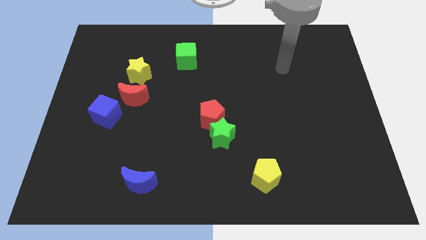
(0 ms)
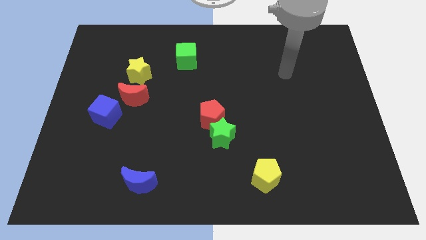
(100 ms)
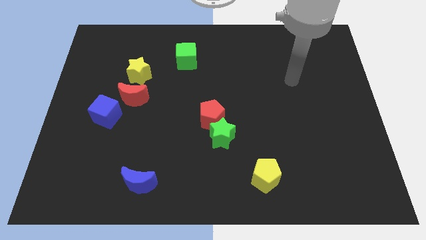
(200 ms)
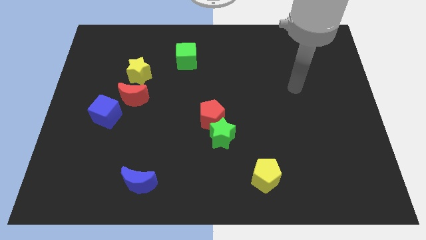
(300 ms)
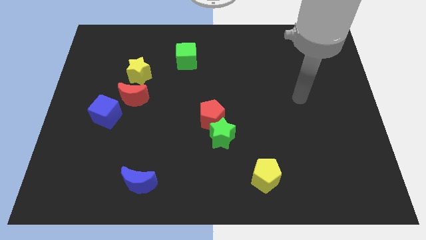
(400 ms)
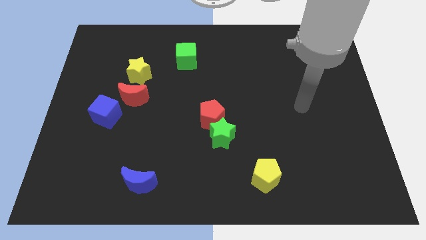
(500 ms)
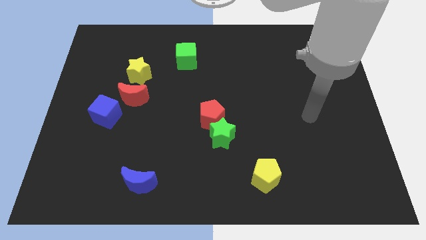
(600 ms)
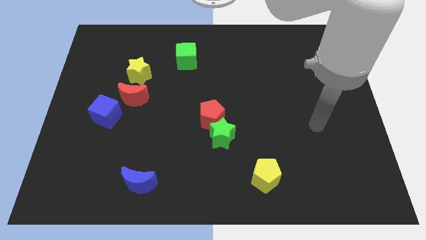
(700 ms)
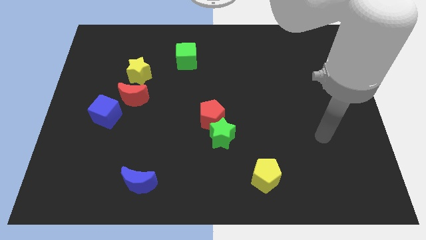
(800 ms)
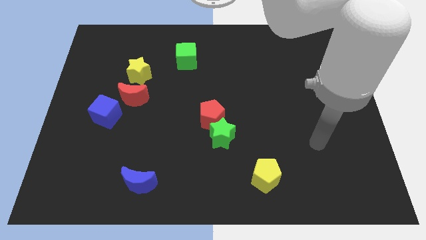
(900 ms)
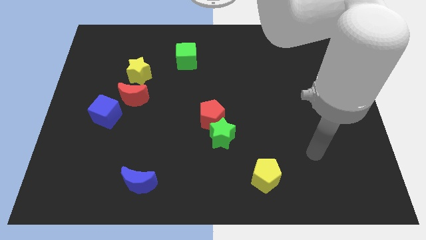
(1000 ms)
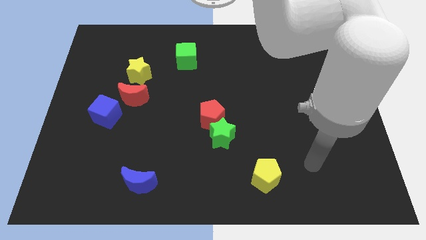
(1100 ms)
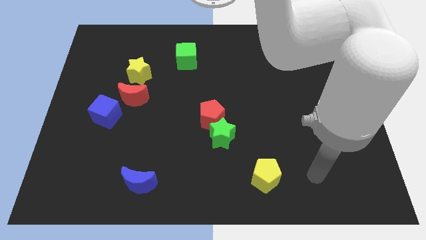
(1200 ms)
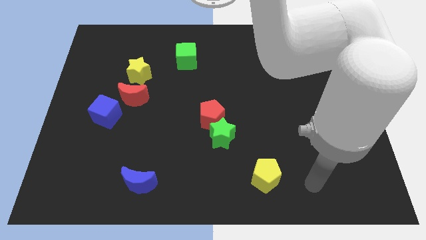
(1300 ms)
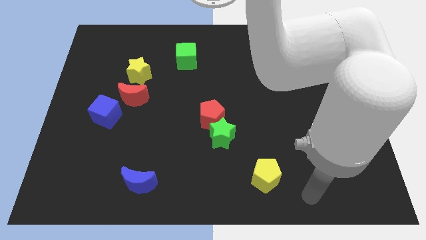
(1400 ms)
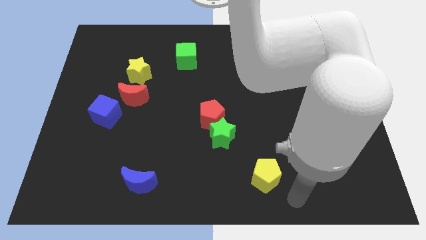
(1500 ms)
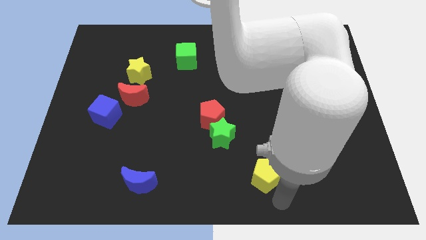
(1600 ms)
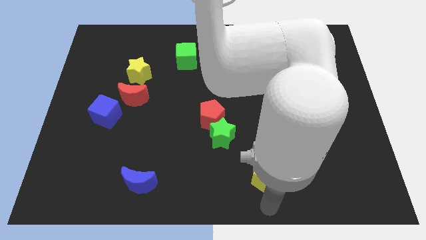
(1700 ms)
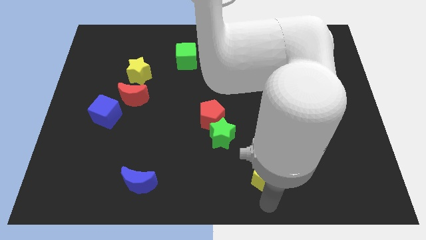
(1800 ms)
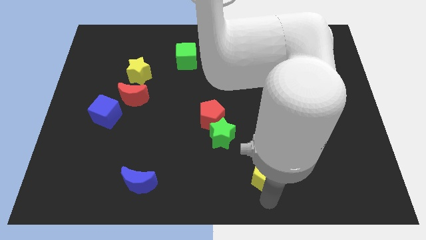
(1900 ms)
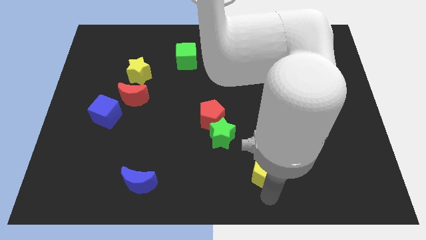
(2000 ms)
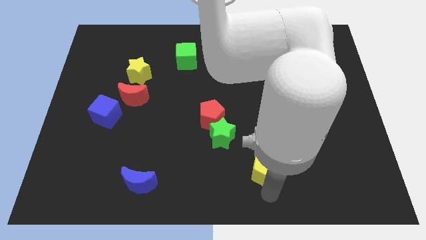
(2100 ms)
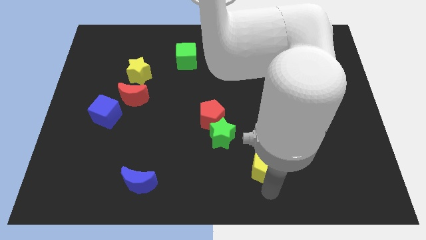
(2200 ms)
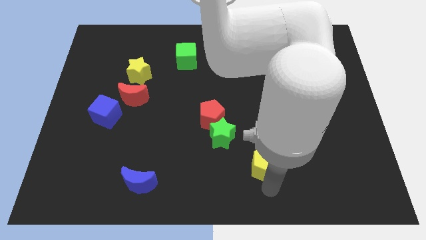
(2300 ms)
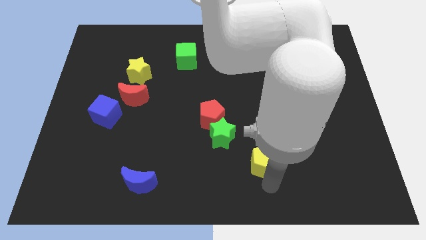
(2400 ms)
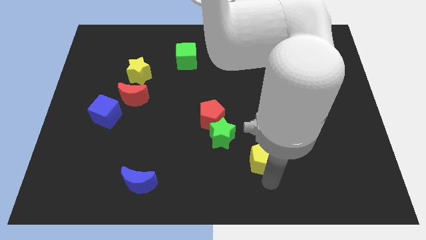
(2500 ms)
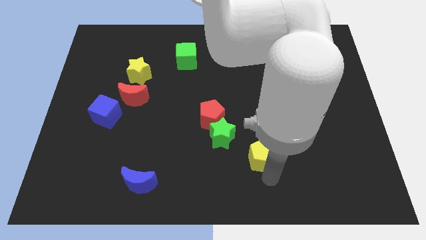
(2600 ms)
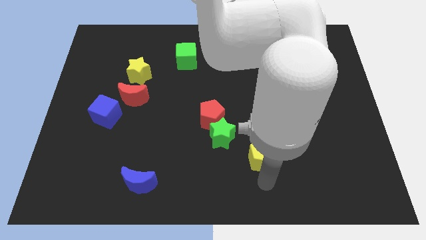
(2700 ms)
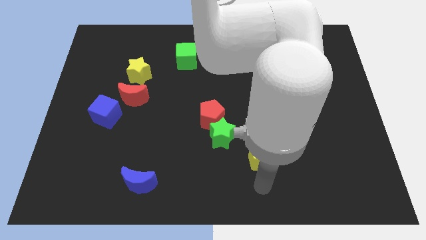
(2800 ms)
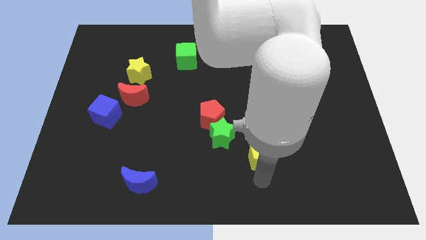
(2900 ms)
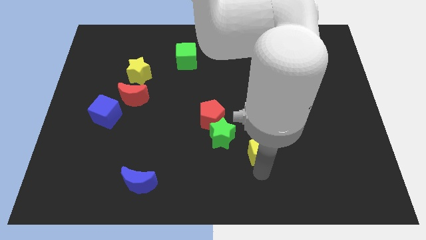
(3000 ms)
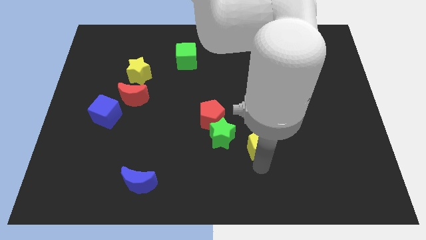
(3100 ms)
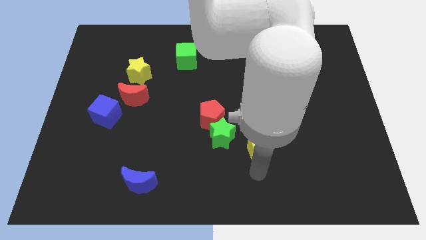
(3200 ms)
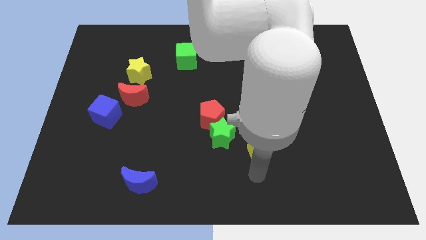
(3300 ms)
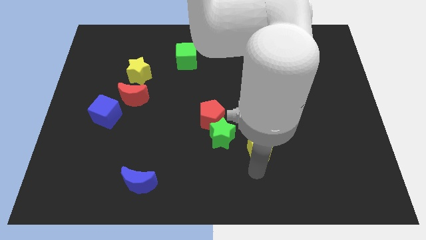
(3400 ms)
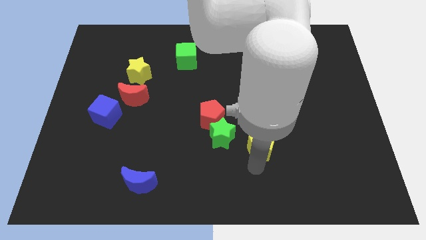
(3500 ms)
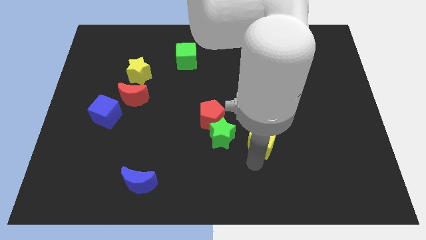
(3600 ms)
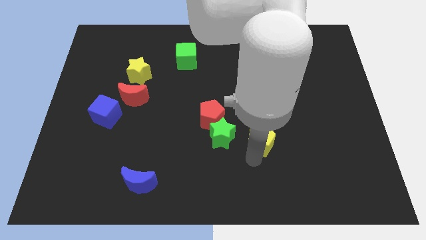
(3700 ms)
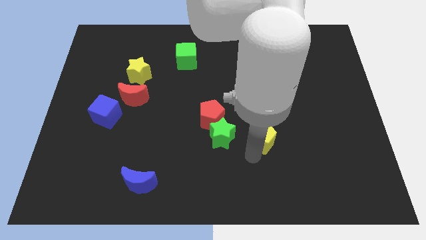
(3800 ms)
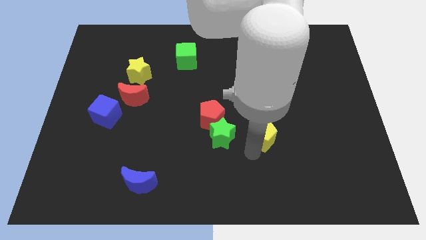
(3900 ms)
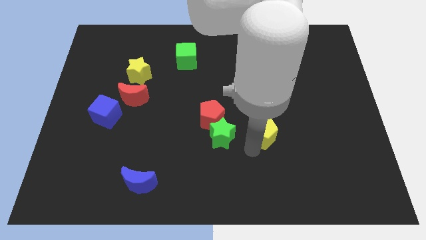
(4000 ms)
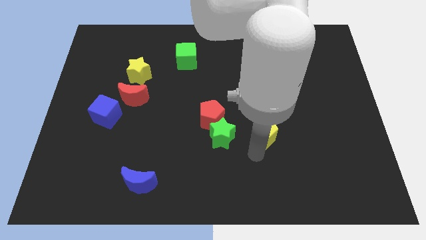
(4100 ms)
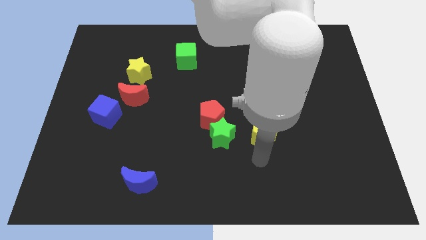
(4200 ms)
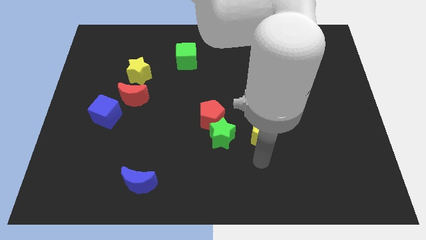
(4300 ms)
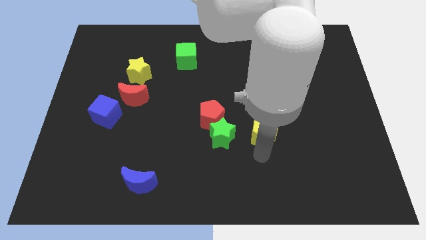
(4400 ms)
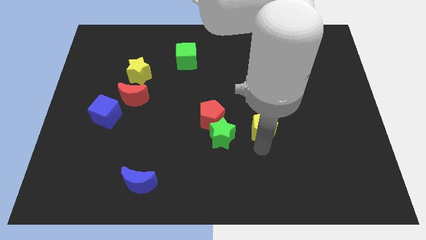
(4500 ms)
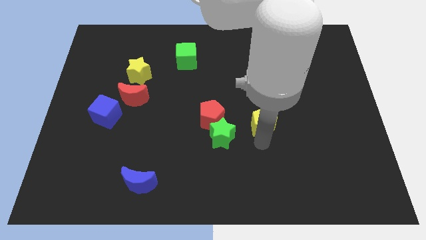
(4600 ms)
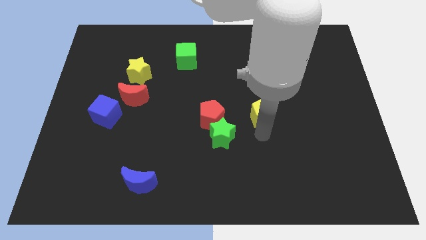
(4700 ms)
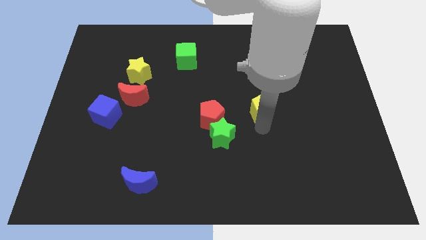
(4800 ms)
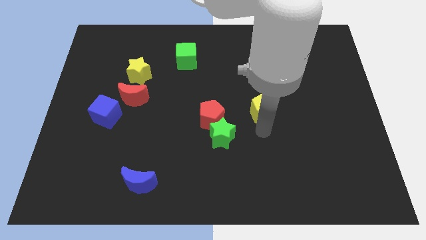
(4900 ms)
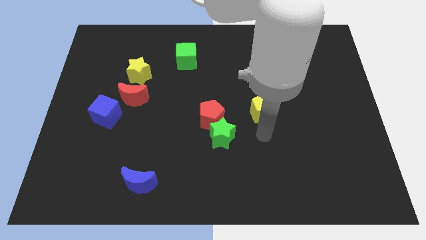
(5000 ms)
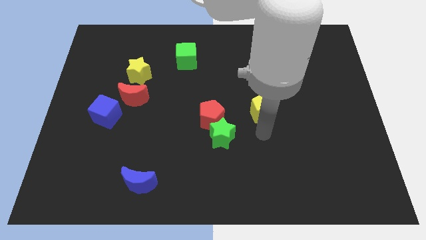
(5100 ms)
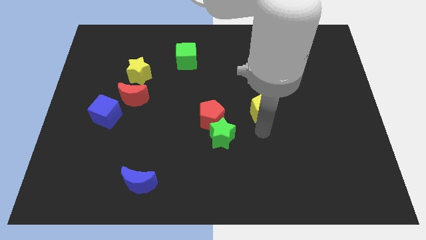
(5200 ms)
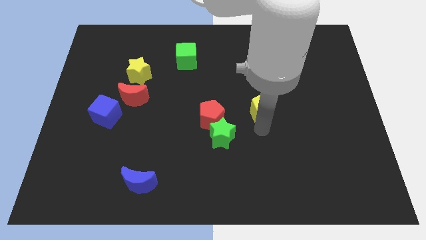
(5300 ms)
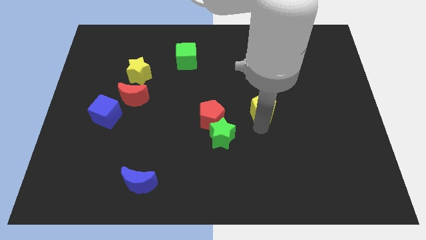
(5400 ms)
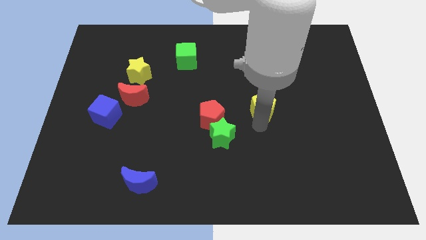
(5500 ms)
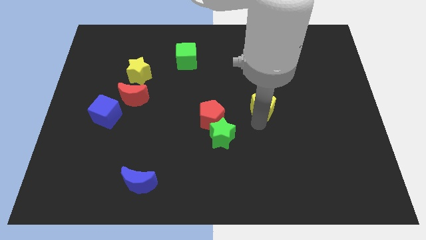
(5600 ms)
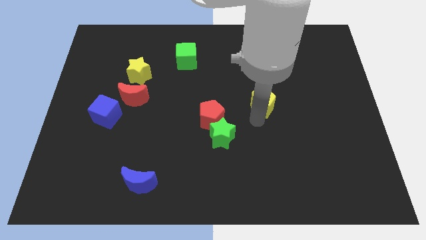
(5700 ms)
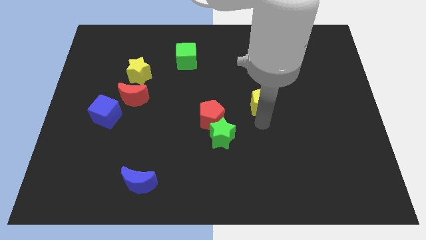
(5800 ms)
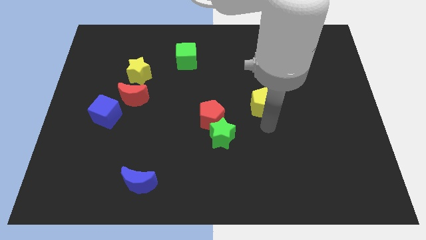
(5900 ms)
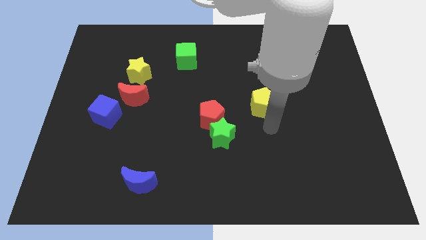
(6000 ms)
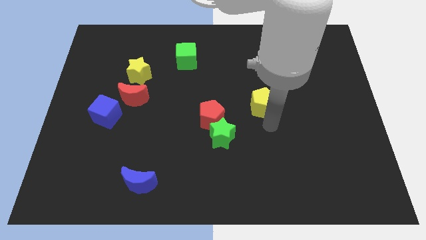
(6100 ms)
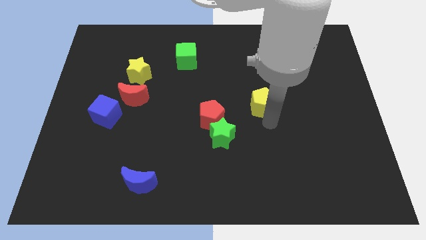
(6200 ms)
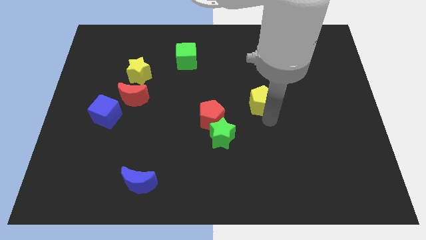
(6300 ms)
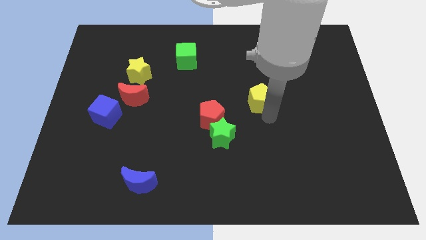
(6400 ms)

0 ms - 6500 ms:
push the yellow pentagon up

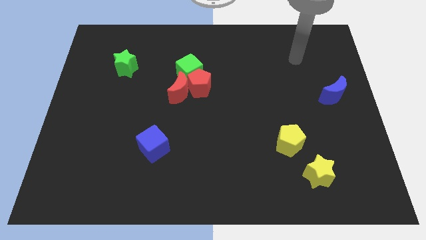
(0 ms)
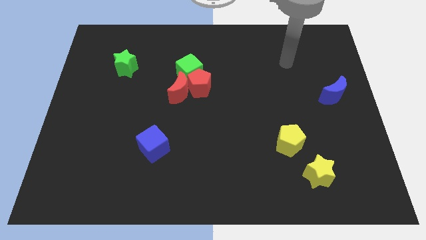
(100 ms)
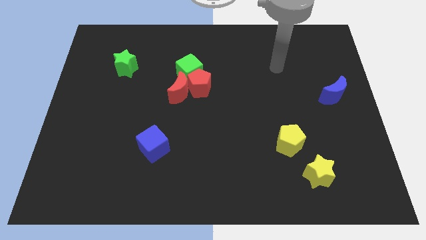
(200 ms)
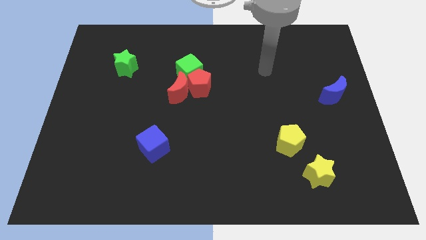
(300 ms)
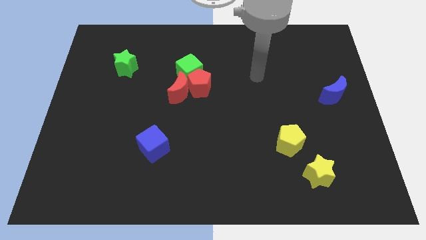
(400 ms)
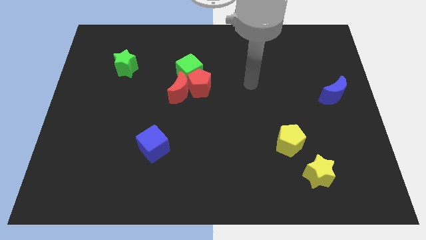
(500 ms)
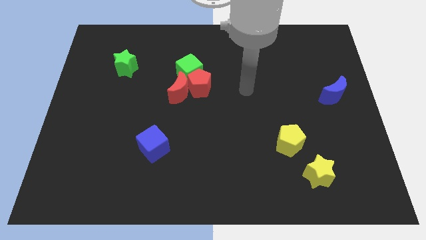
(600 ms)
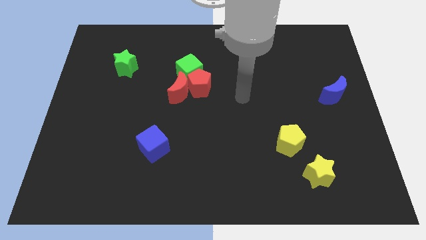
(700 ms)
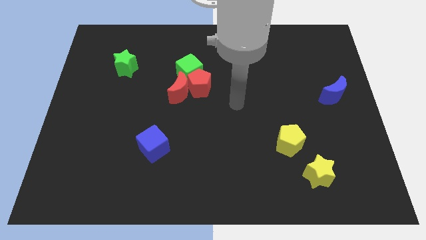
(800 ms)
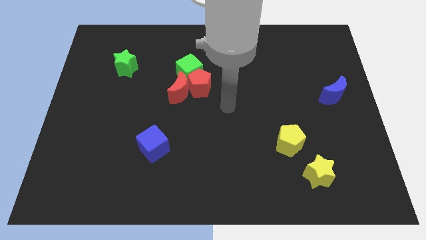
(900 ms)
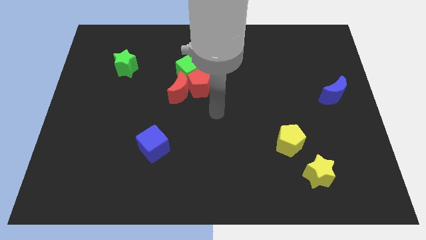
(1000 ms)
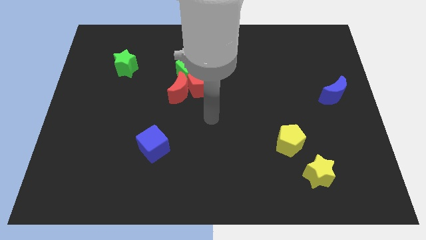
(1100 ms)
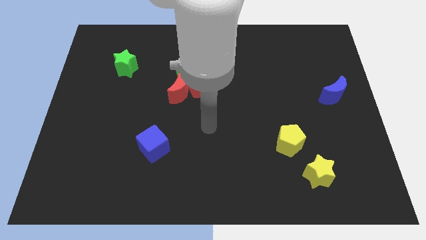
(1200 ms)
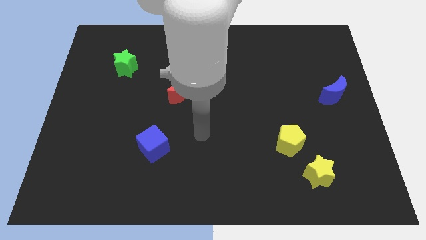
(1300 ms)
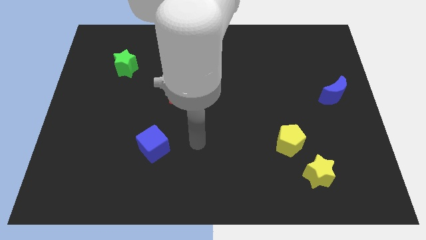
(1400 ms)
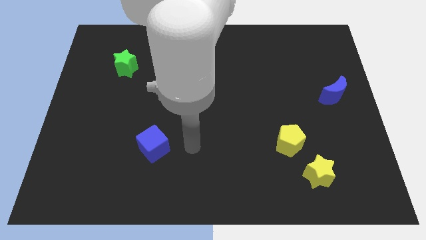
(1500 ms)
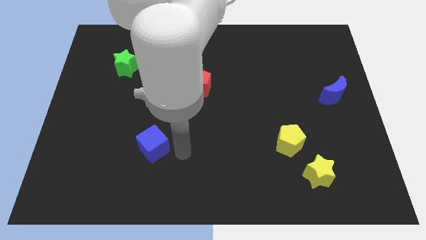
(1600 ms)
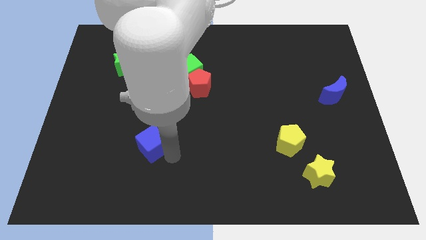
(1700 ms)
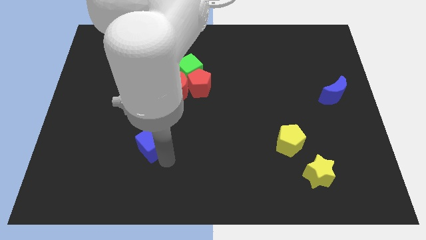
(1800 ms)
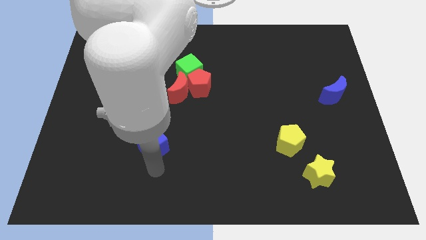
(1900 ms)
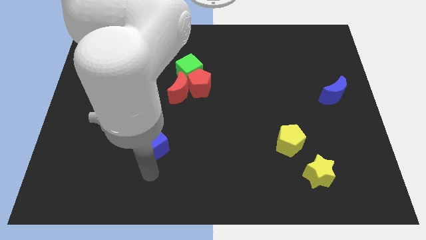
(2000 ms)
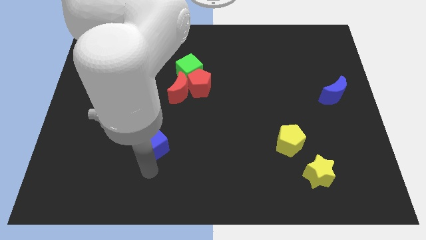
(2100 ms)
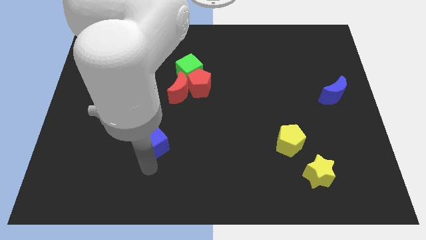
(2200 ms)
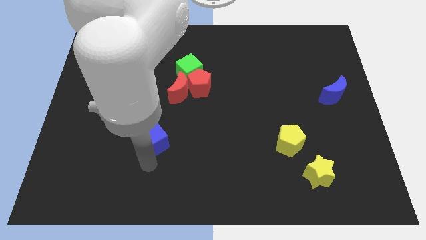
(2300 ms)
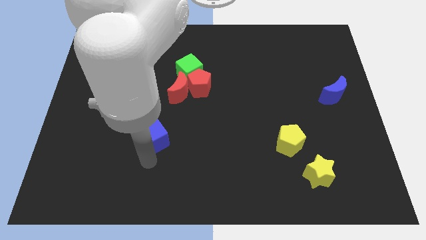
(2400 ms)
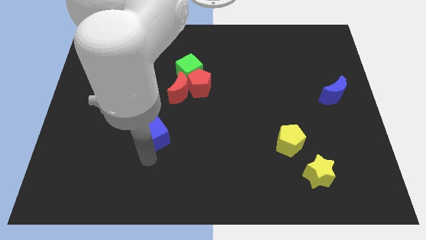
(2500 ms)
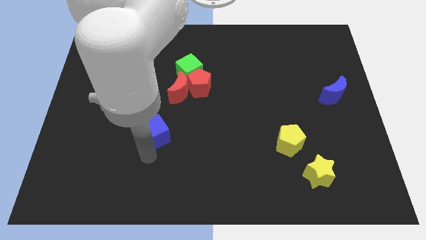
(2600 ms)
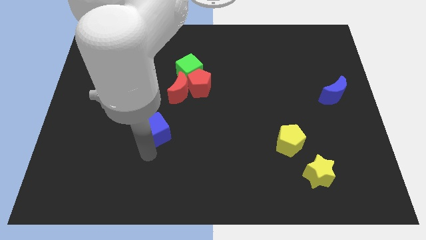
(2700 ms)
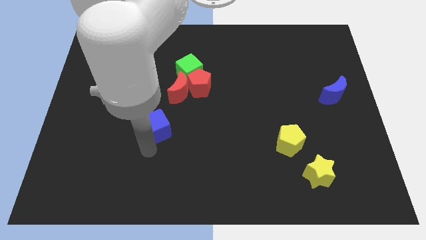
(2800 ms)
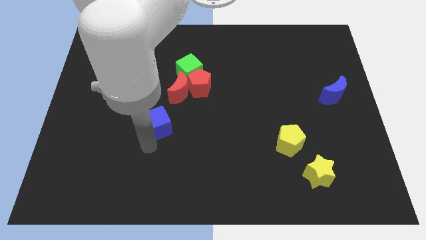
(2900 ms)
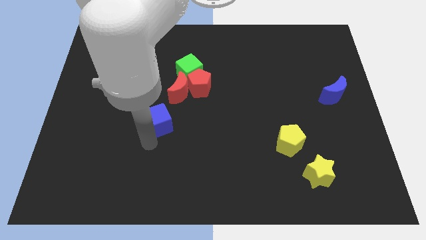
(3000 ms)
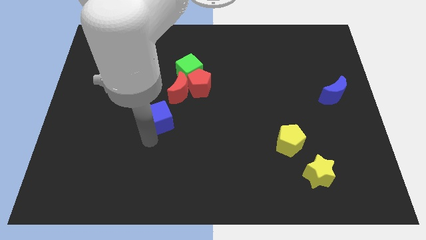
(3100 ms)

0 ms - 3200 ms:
slide the blue cube a little bit upwards
